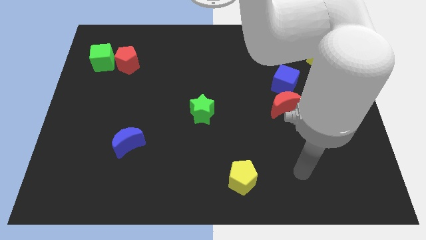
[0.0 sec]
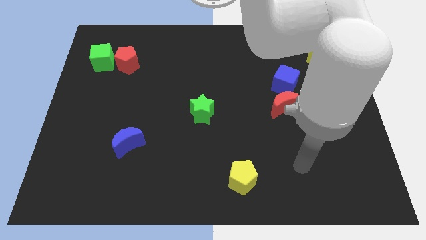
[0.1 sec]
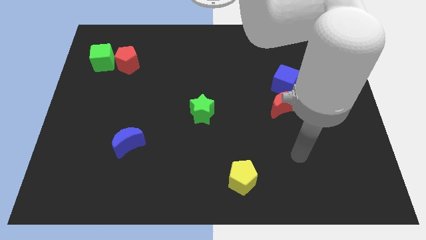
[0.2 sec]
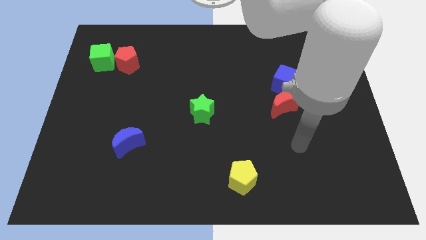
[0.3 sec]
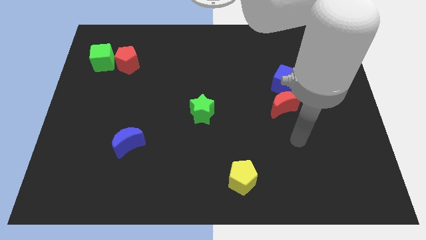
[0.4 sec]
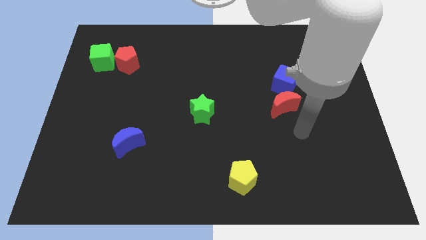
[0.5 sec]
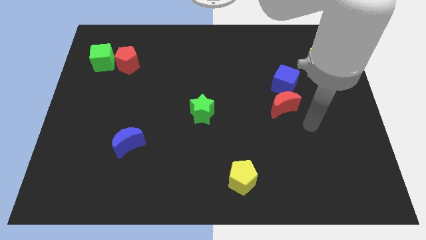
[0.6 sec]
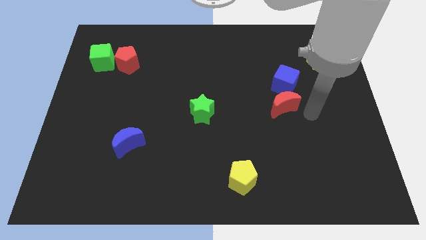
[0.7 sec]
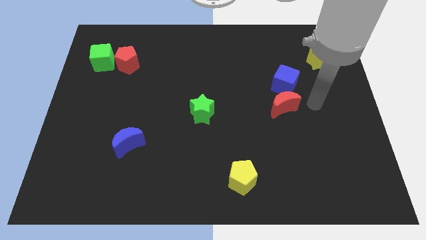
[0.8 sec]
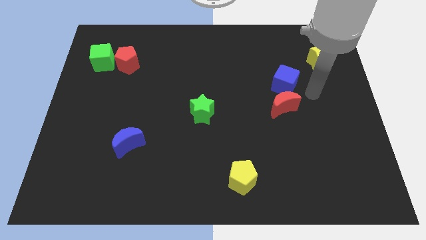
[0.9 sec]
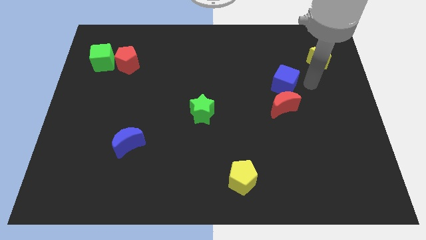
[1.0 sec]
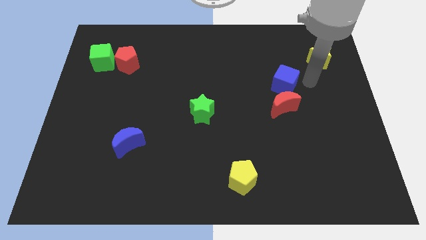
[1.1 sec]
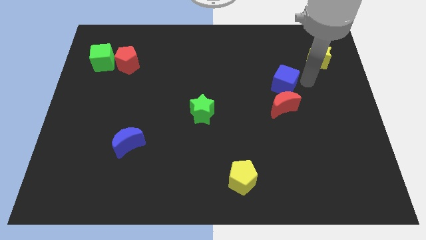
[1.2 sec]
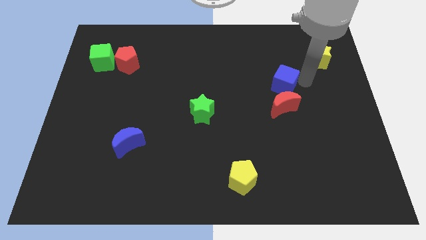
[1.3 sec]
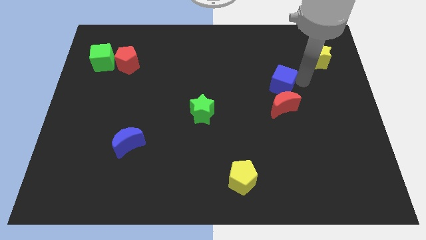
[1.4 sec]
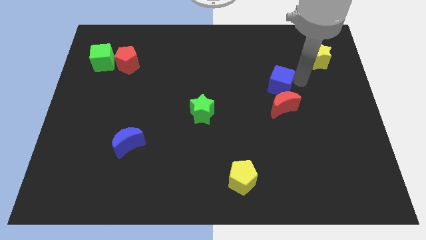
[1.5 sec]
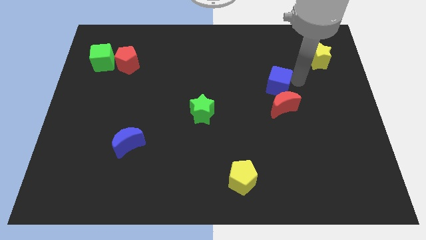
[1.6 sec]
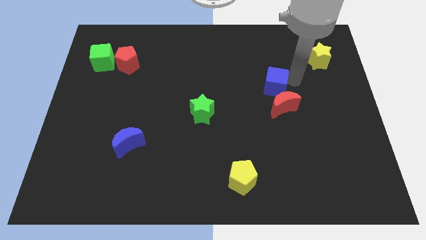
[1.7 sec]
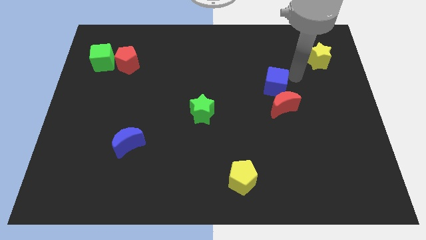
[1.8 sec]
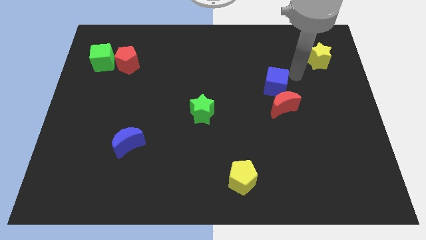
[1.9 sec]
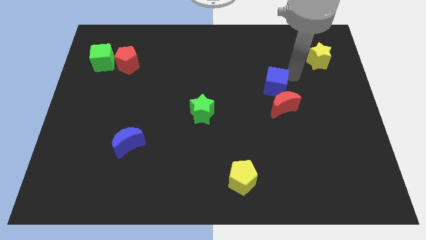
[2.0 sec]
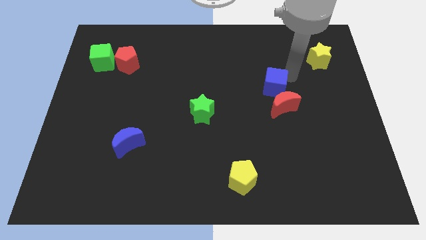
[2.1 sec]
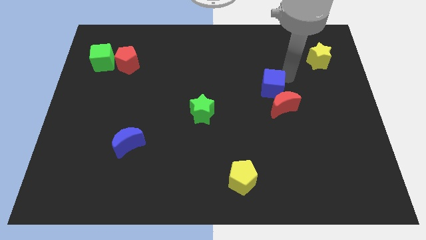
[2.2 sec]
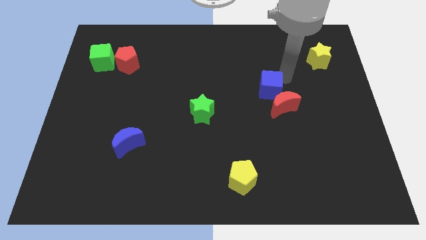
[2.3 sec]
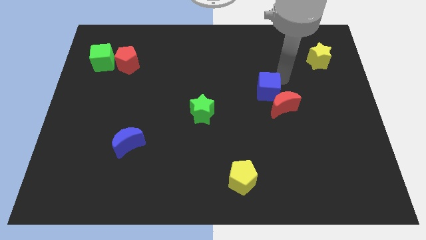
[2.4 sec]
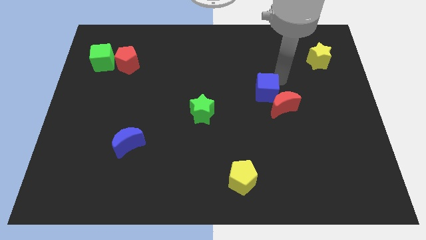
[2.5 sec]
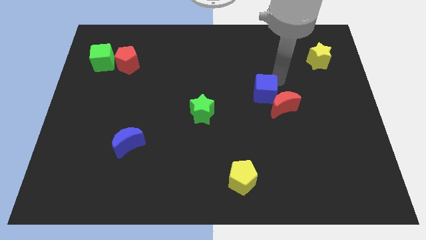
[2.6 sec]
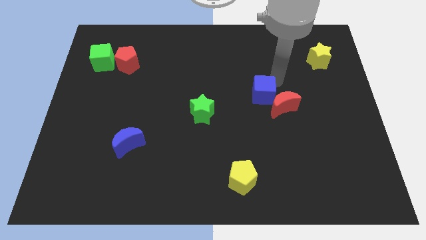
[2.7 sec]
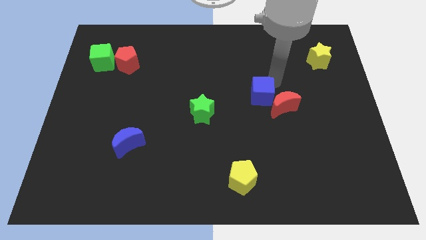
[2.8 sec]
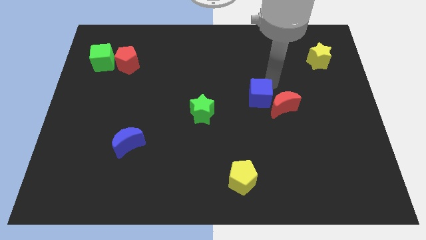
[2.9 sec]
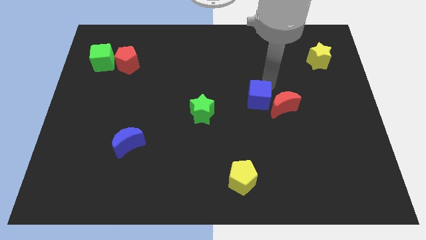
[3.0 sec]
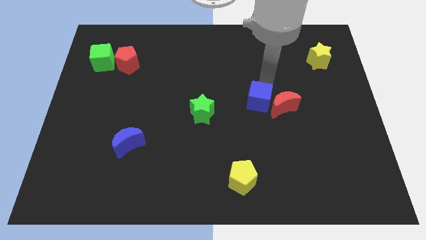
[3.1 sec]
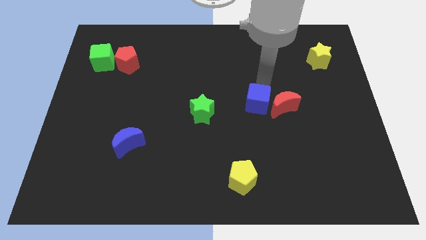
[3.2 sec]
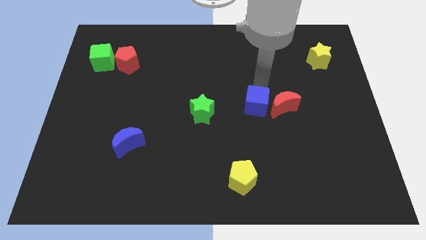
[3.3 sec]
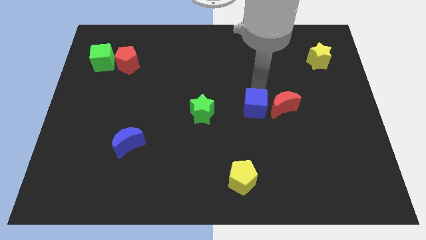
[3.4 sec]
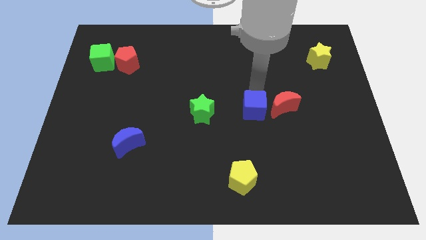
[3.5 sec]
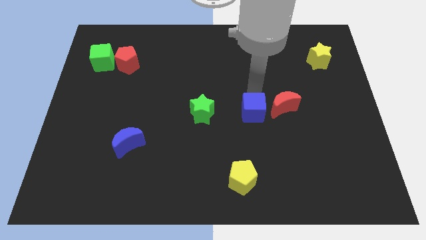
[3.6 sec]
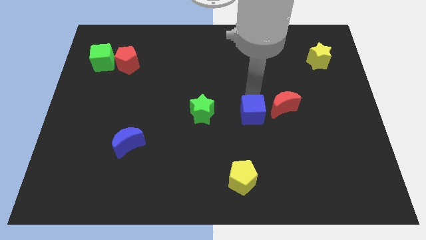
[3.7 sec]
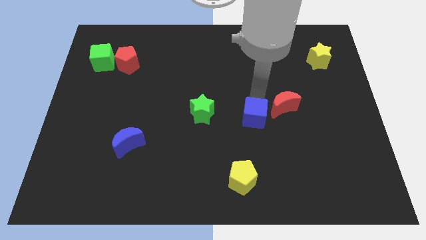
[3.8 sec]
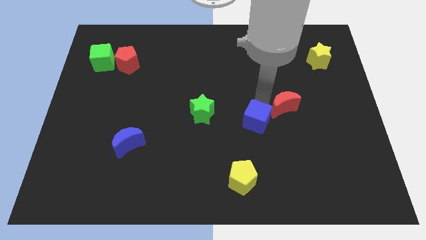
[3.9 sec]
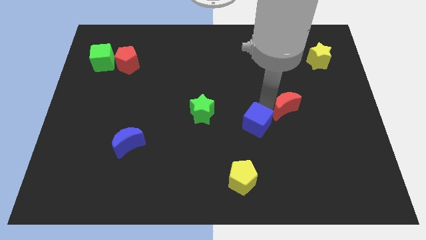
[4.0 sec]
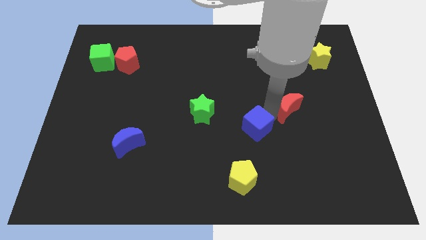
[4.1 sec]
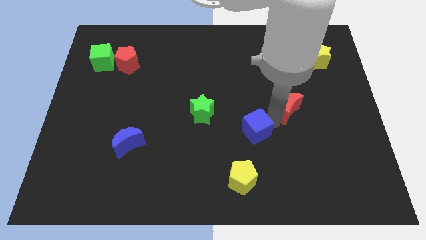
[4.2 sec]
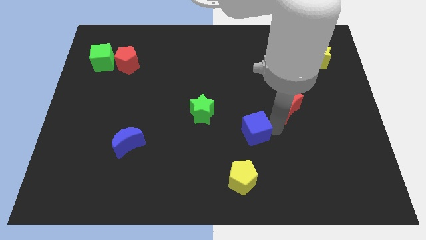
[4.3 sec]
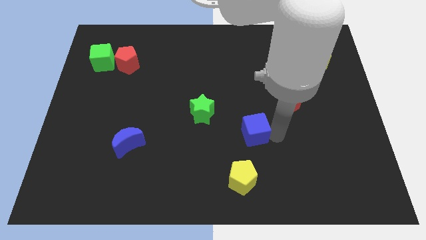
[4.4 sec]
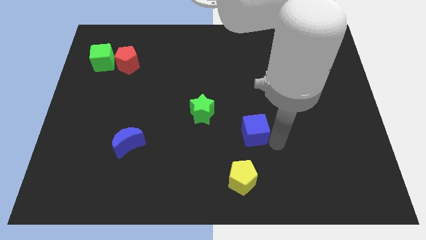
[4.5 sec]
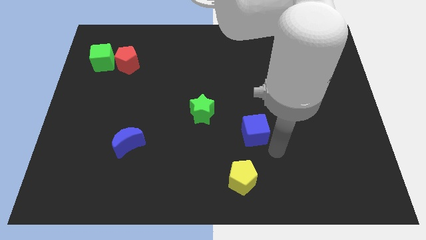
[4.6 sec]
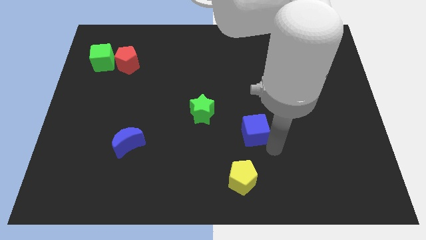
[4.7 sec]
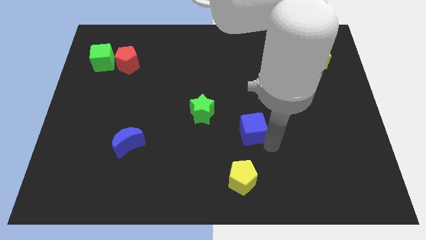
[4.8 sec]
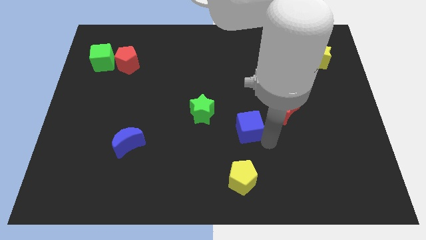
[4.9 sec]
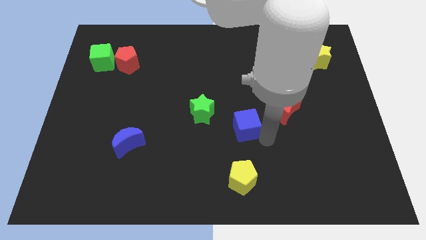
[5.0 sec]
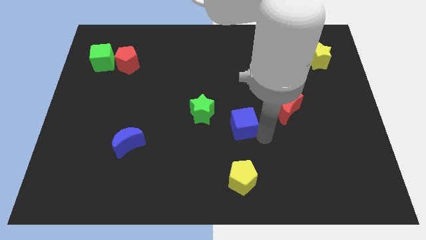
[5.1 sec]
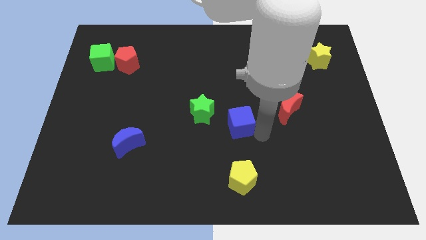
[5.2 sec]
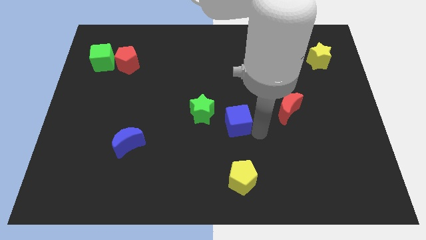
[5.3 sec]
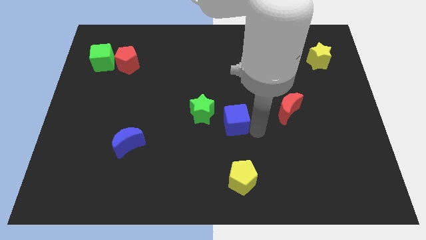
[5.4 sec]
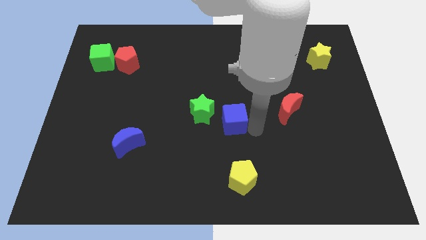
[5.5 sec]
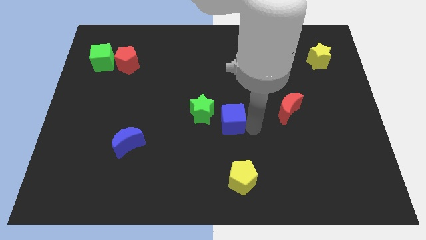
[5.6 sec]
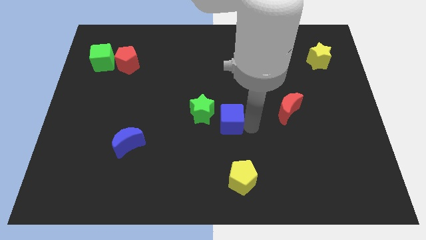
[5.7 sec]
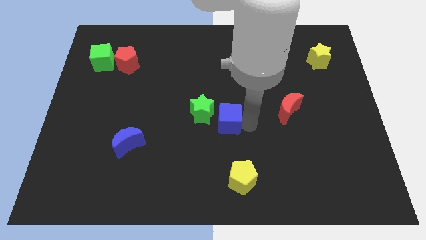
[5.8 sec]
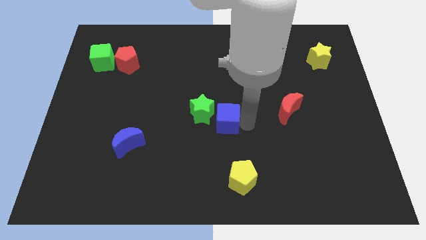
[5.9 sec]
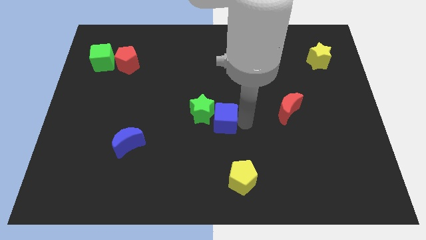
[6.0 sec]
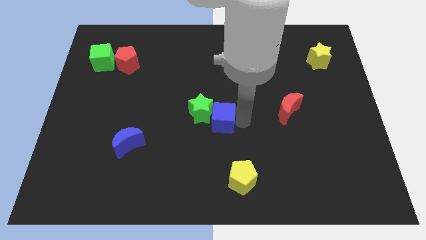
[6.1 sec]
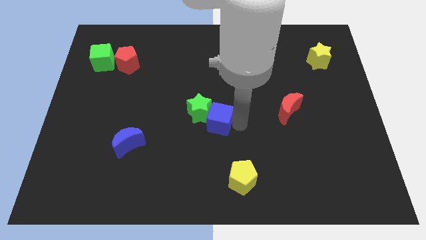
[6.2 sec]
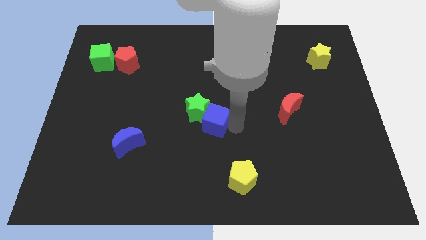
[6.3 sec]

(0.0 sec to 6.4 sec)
slide the blue cube down and then to the left

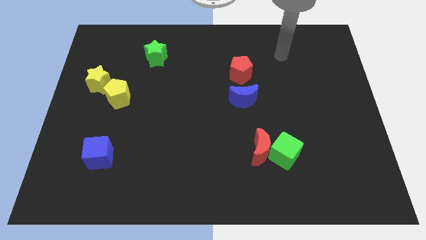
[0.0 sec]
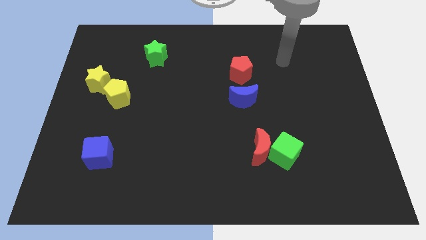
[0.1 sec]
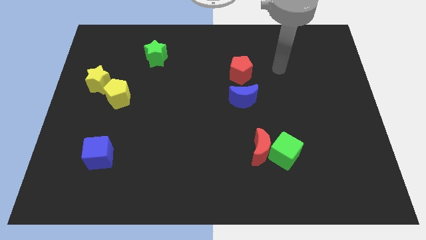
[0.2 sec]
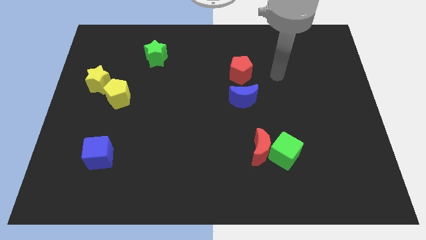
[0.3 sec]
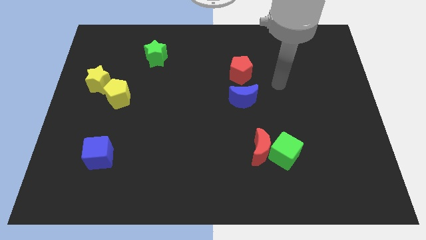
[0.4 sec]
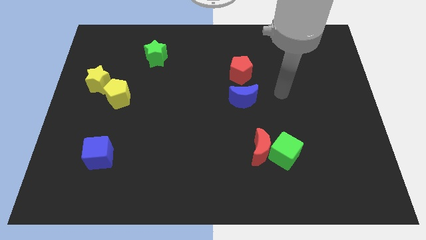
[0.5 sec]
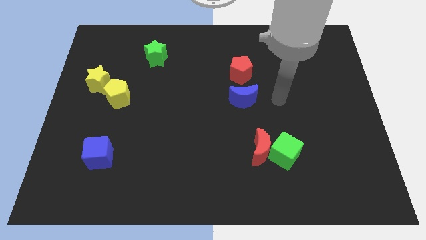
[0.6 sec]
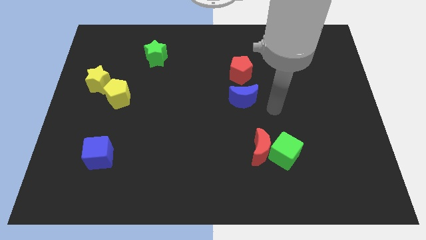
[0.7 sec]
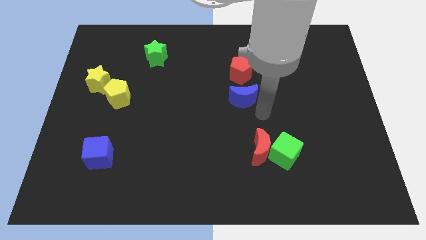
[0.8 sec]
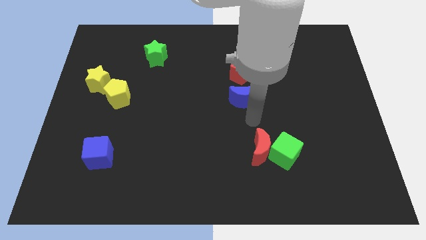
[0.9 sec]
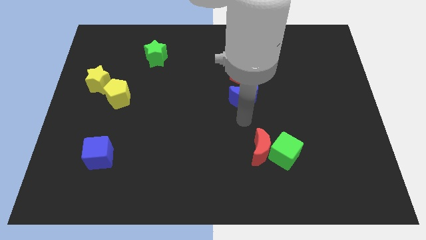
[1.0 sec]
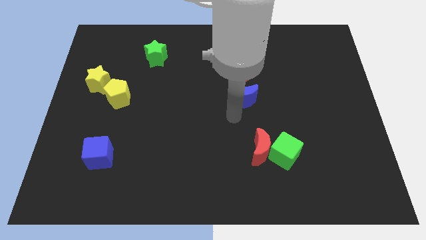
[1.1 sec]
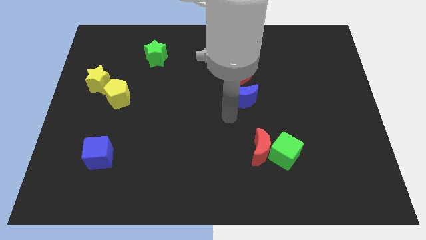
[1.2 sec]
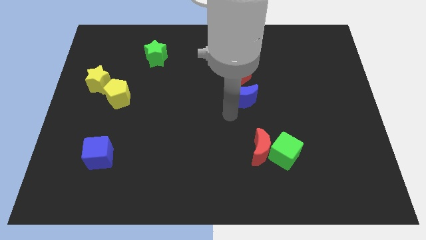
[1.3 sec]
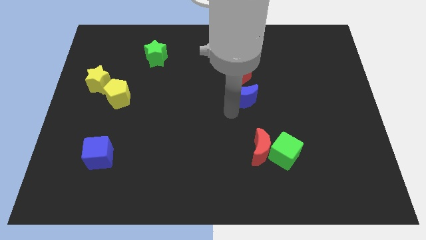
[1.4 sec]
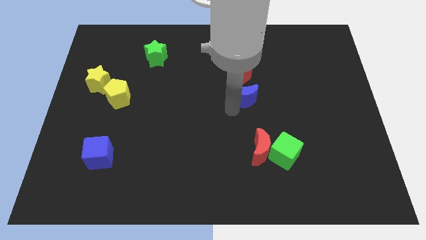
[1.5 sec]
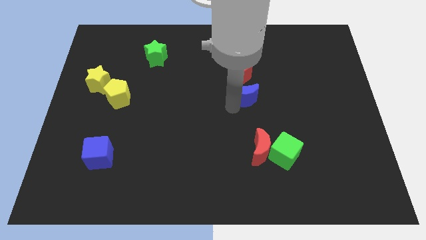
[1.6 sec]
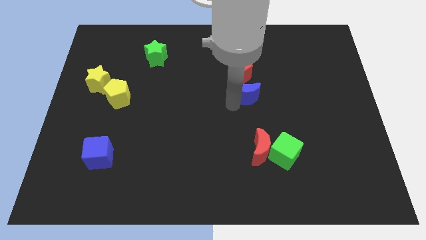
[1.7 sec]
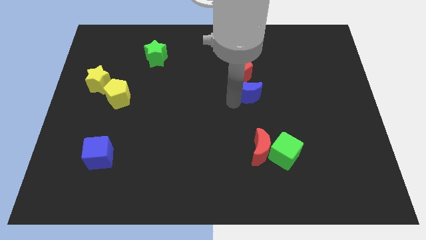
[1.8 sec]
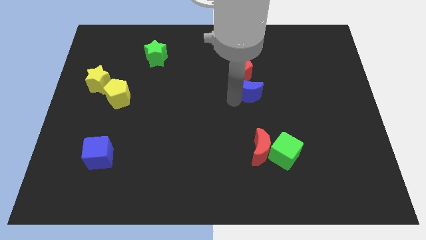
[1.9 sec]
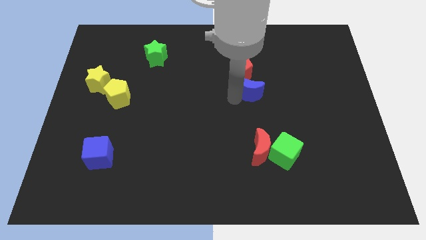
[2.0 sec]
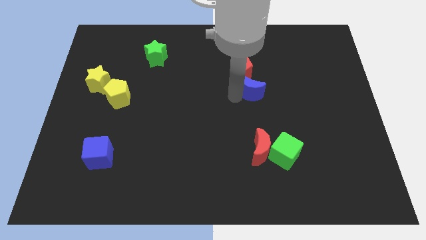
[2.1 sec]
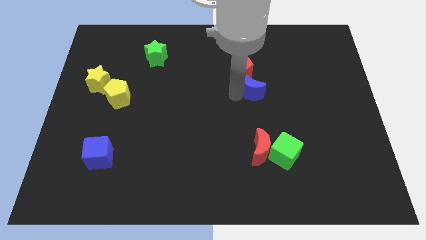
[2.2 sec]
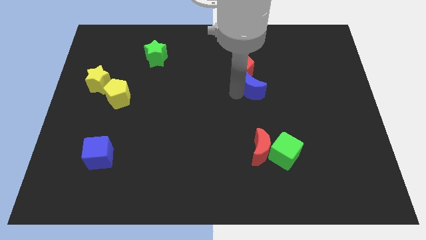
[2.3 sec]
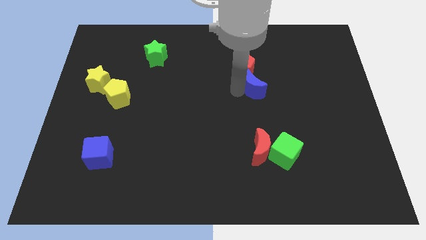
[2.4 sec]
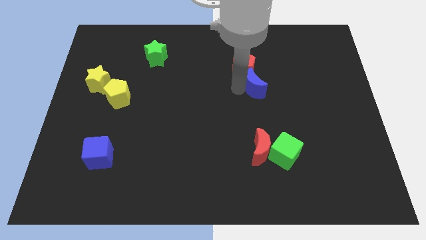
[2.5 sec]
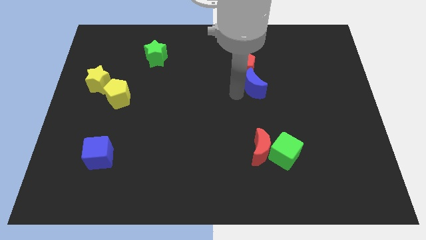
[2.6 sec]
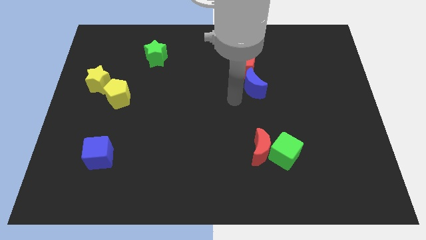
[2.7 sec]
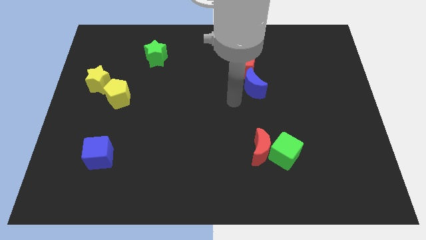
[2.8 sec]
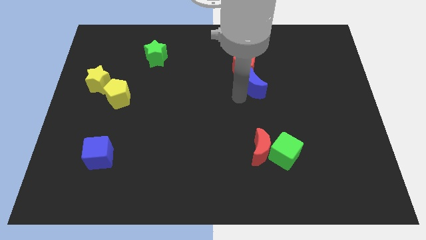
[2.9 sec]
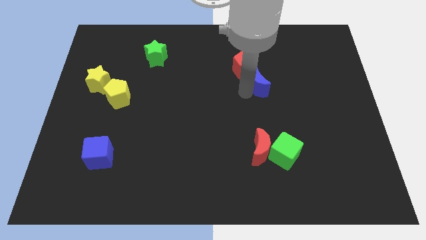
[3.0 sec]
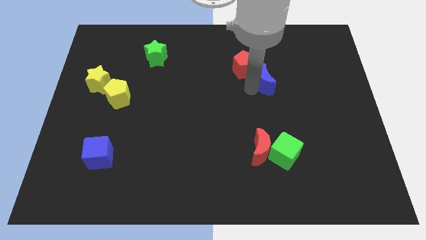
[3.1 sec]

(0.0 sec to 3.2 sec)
slide the blue moon upwards and to the right diagonally a little
